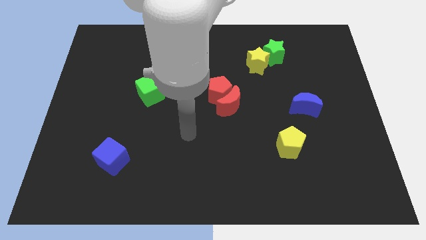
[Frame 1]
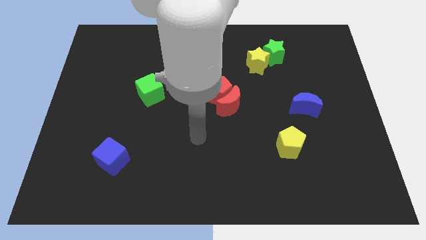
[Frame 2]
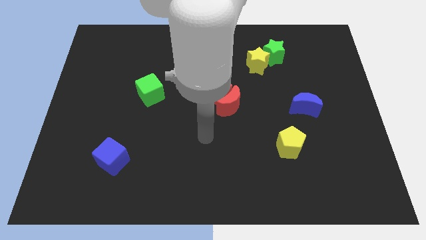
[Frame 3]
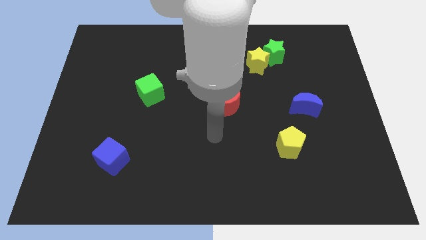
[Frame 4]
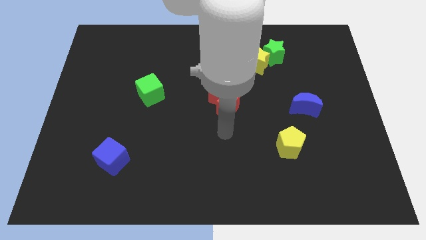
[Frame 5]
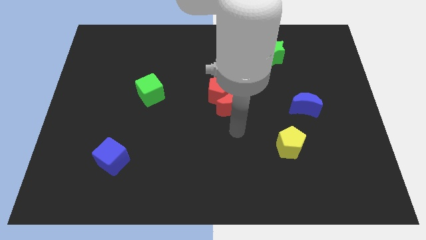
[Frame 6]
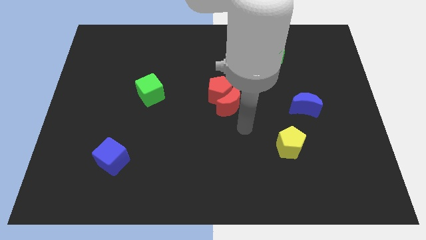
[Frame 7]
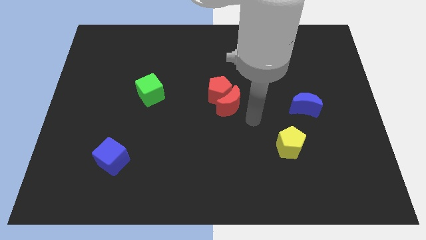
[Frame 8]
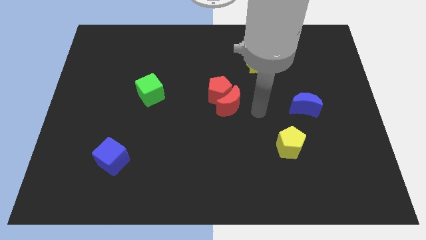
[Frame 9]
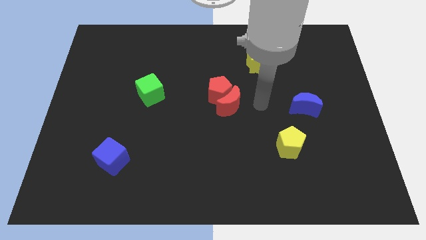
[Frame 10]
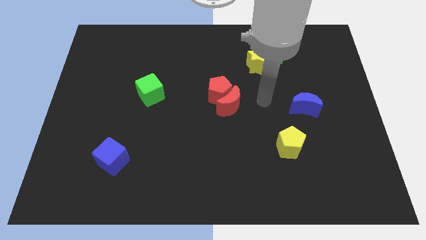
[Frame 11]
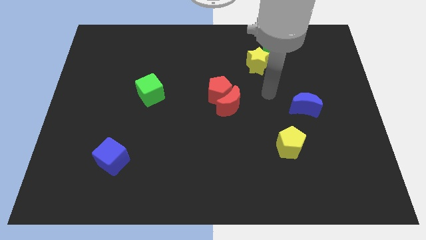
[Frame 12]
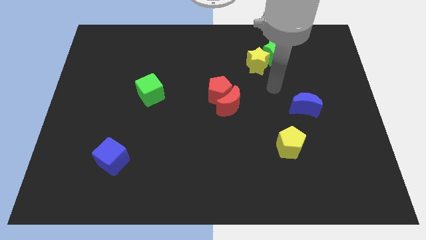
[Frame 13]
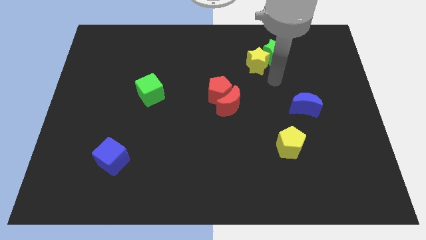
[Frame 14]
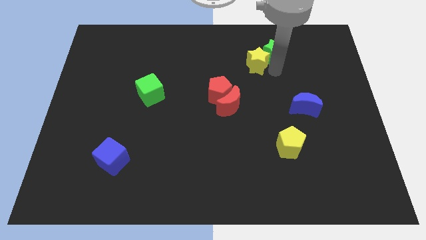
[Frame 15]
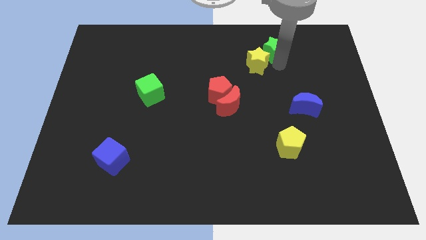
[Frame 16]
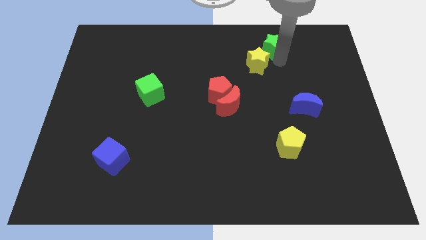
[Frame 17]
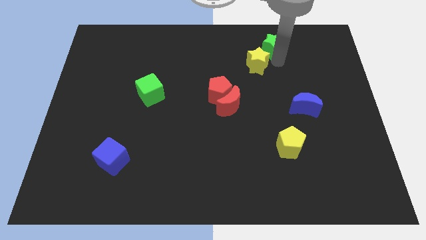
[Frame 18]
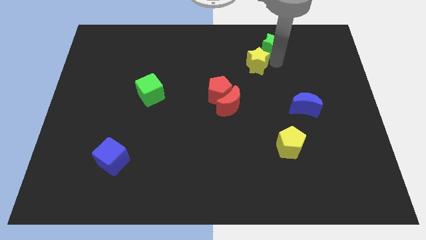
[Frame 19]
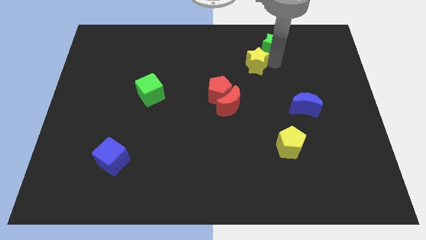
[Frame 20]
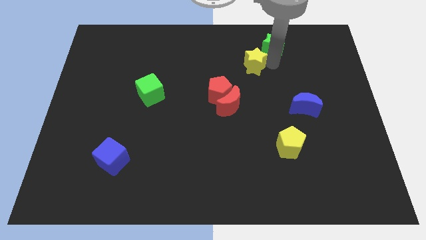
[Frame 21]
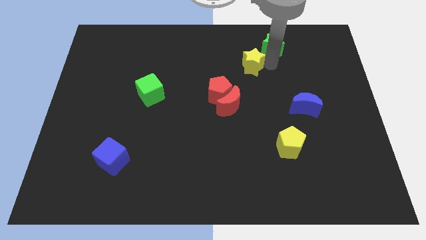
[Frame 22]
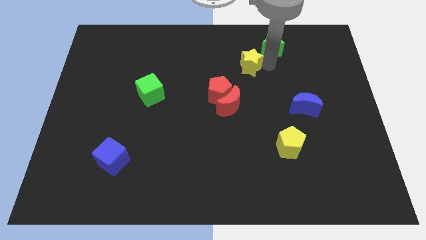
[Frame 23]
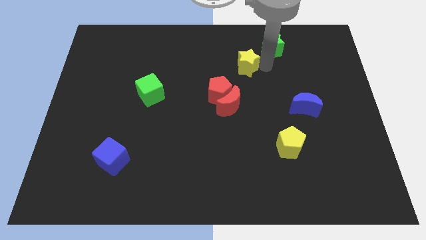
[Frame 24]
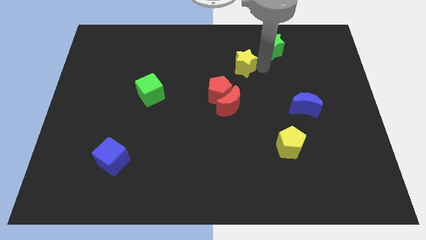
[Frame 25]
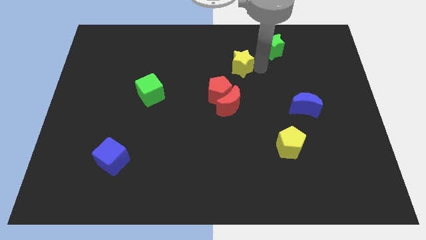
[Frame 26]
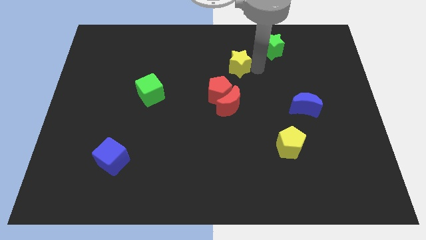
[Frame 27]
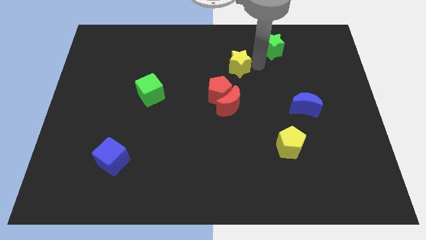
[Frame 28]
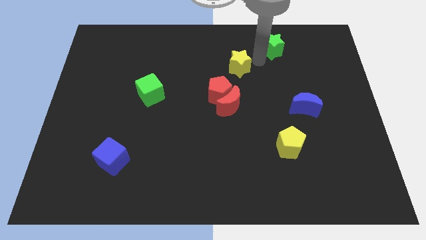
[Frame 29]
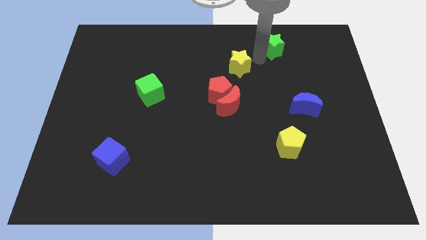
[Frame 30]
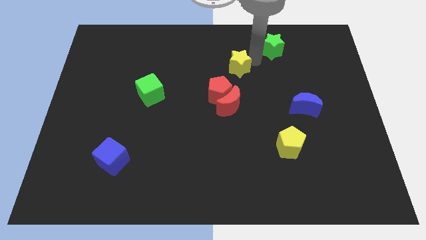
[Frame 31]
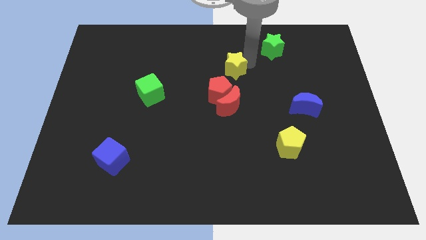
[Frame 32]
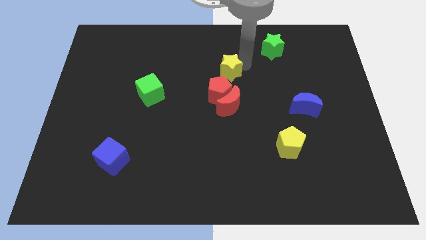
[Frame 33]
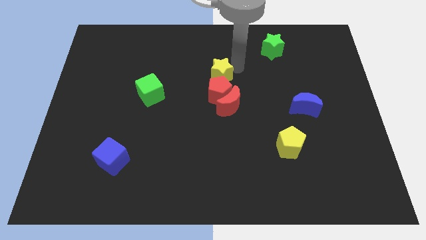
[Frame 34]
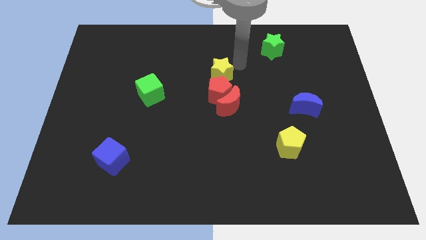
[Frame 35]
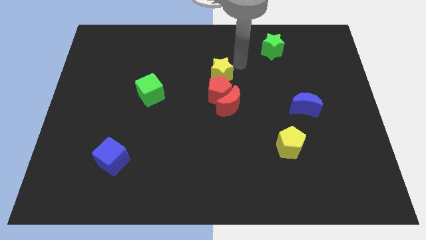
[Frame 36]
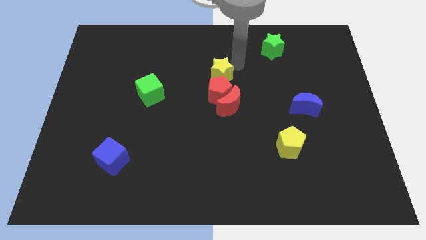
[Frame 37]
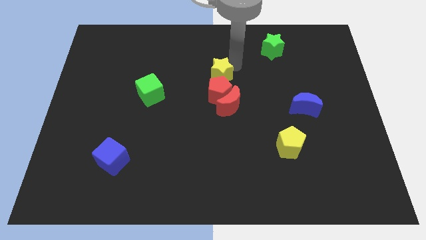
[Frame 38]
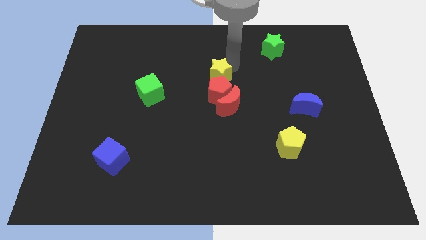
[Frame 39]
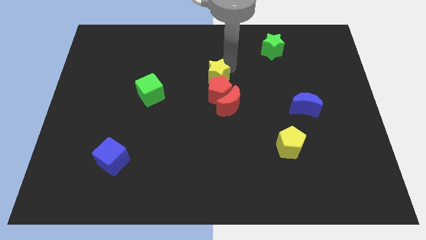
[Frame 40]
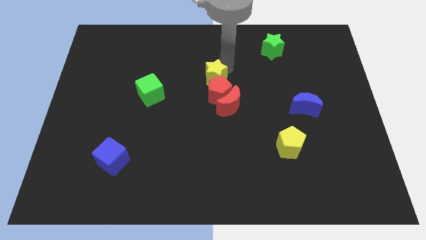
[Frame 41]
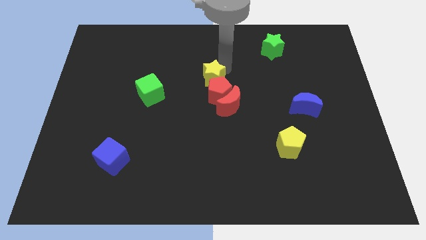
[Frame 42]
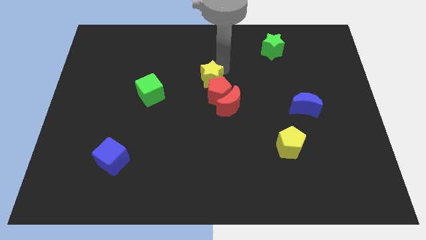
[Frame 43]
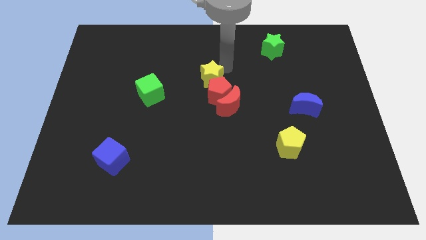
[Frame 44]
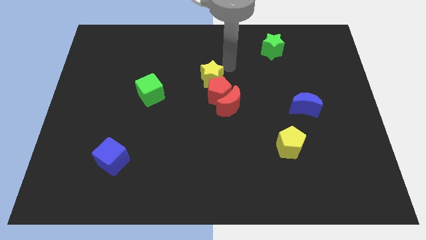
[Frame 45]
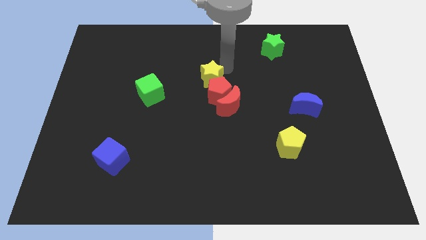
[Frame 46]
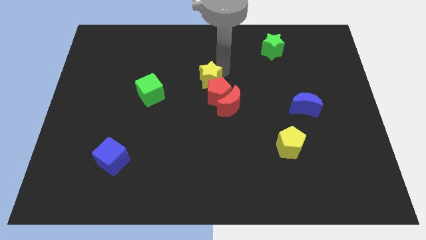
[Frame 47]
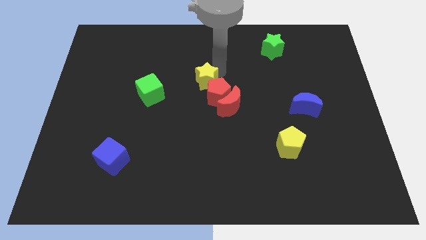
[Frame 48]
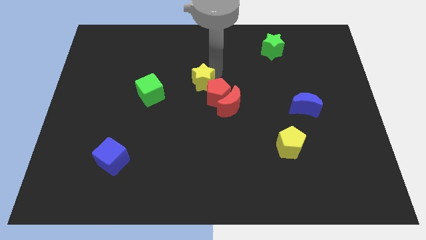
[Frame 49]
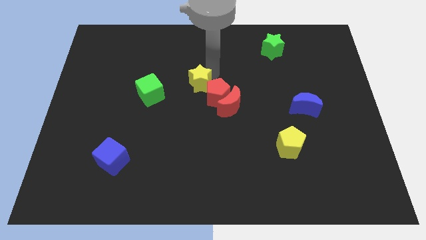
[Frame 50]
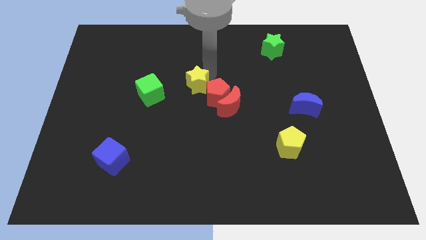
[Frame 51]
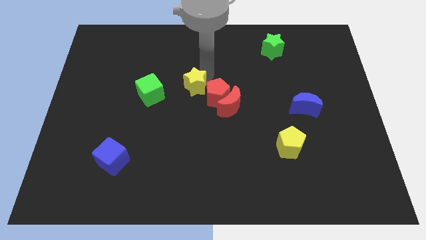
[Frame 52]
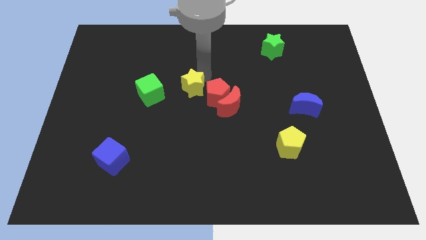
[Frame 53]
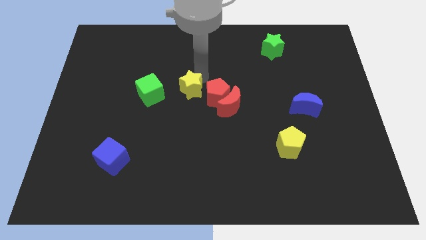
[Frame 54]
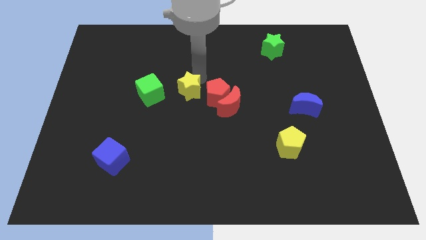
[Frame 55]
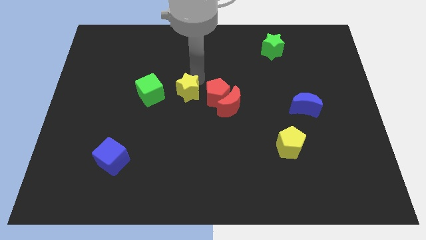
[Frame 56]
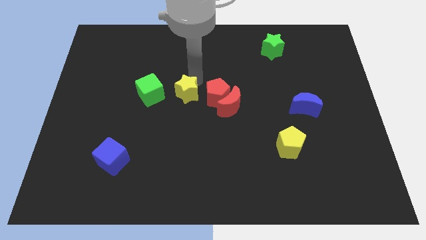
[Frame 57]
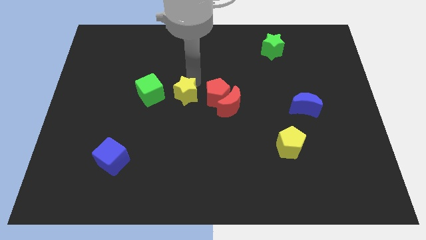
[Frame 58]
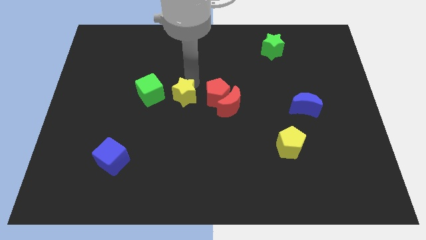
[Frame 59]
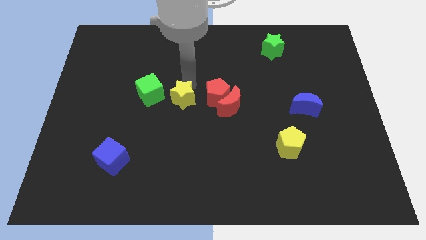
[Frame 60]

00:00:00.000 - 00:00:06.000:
slide the yellow star downwards and to the left diagonally

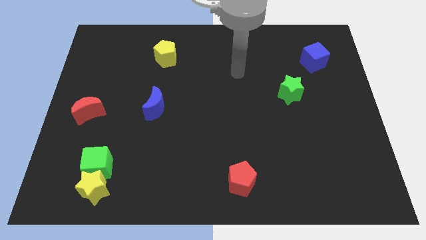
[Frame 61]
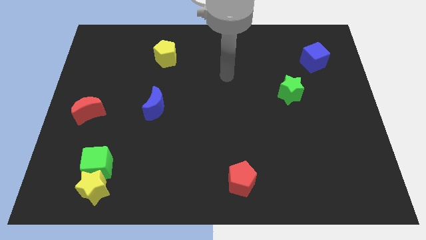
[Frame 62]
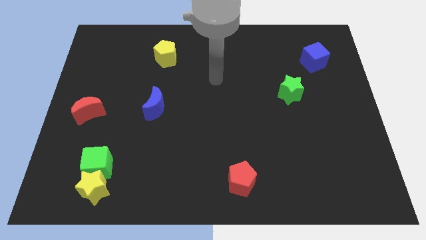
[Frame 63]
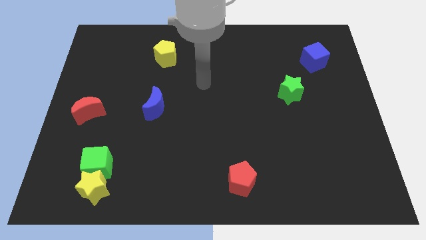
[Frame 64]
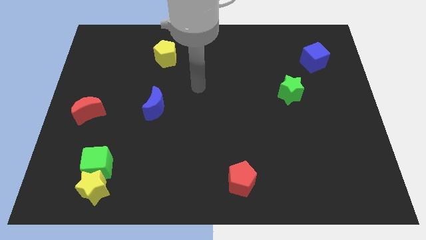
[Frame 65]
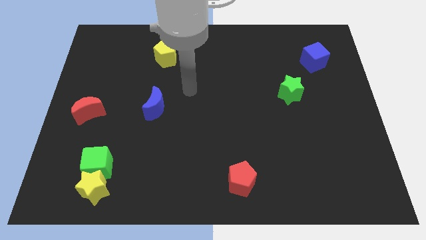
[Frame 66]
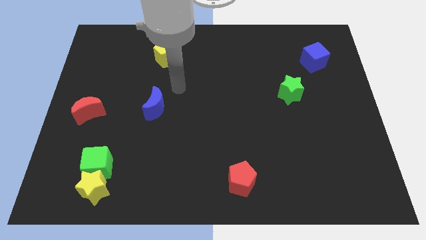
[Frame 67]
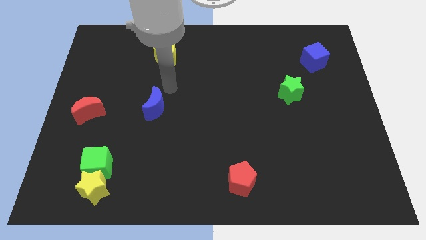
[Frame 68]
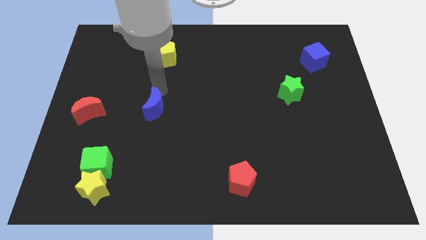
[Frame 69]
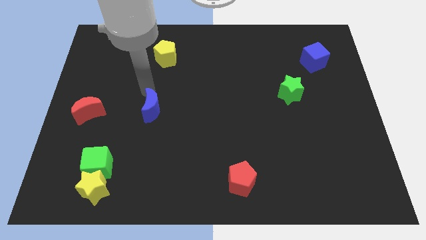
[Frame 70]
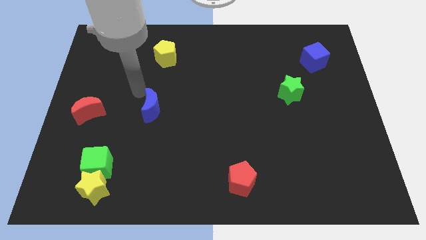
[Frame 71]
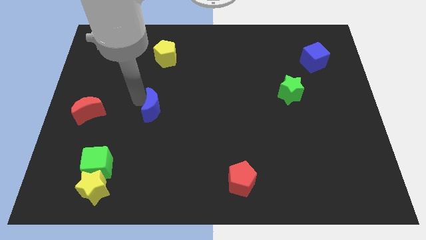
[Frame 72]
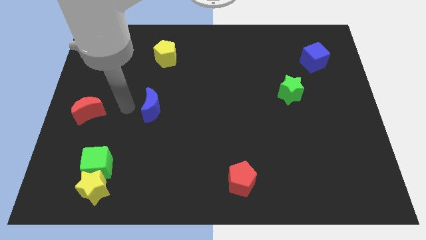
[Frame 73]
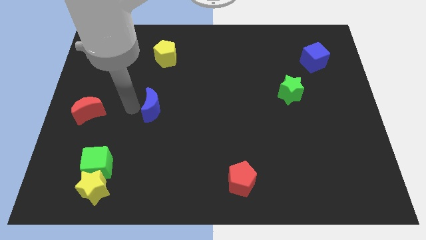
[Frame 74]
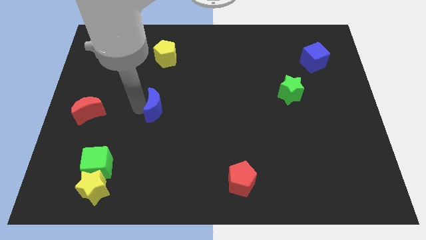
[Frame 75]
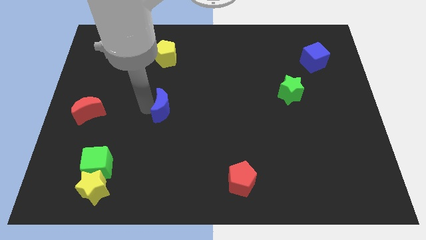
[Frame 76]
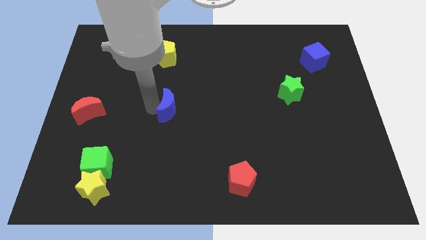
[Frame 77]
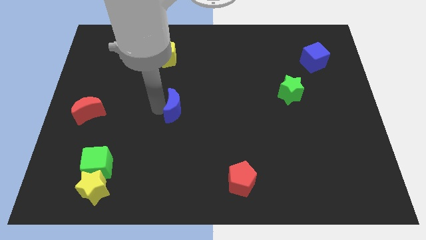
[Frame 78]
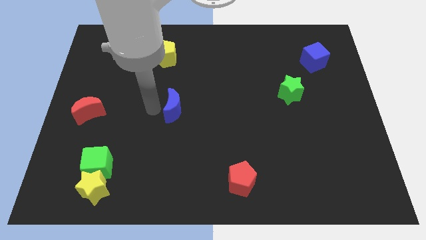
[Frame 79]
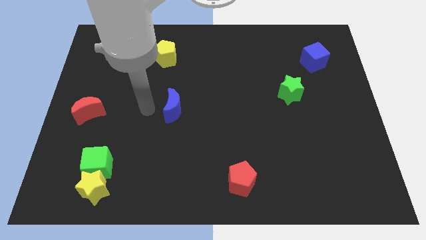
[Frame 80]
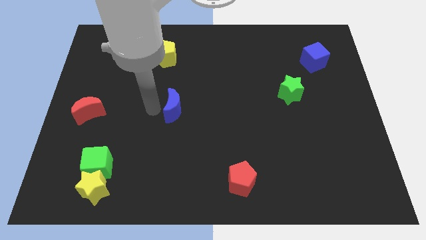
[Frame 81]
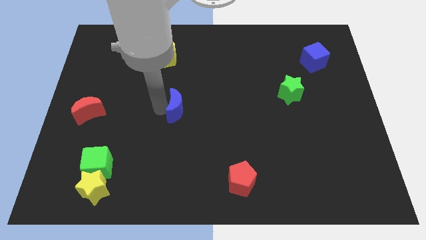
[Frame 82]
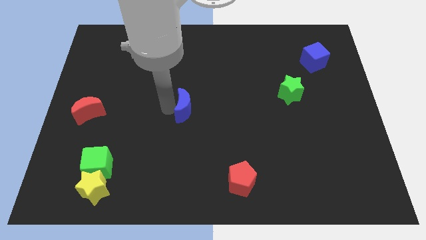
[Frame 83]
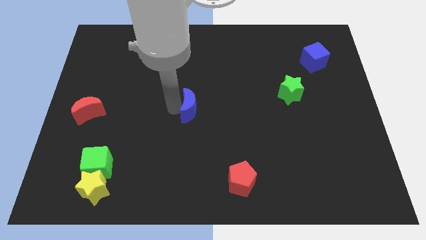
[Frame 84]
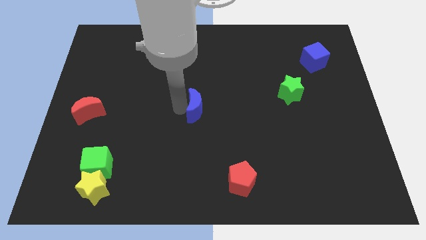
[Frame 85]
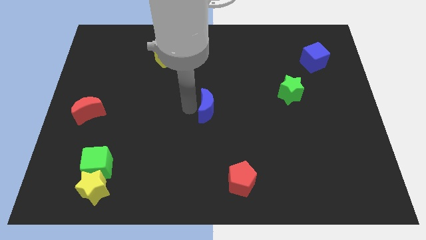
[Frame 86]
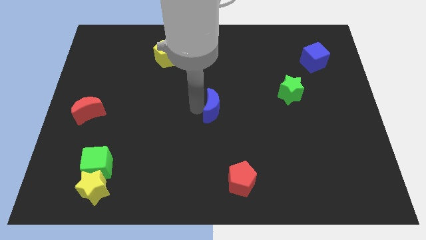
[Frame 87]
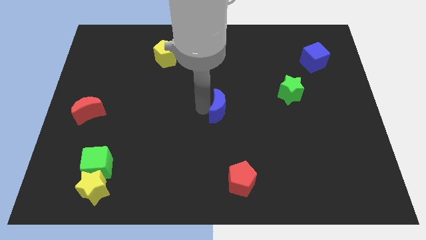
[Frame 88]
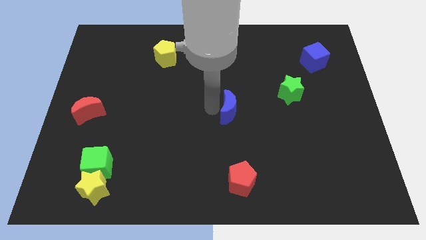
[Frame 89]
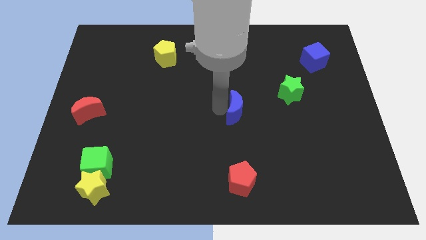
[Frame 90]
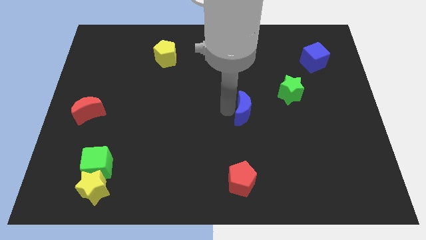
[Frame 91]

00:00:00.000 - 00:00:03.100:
slide the blue moon to the right
